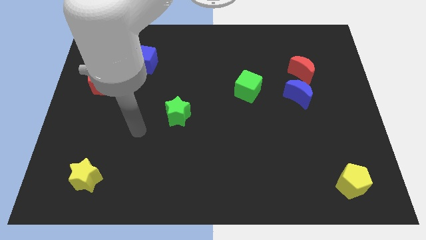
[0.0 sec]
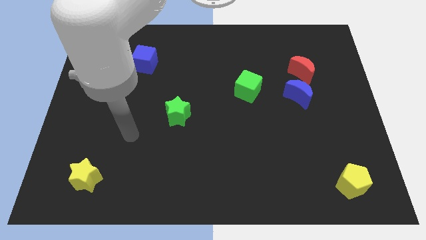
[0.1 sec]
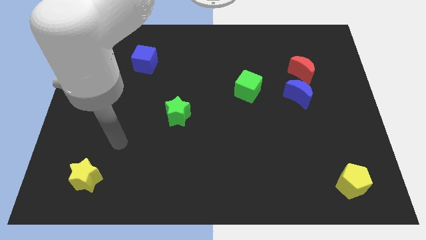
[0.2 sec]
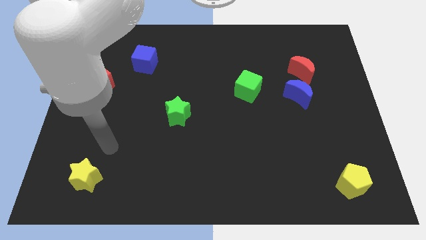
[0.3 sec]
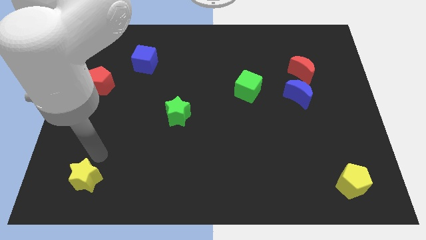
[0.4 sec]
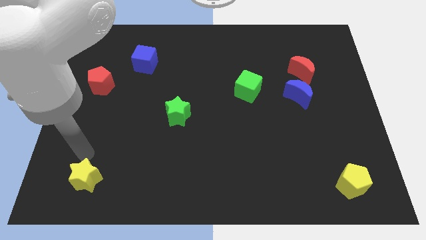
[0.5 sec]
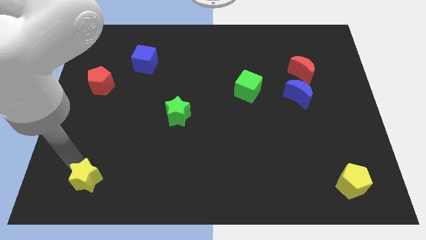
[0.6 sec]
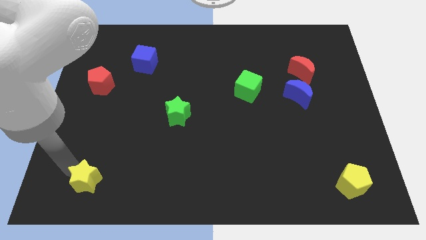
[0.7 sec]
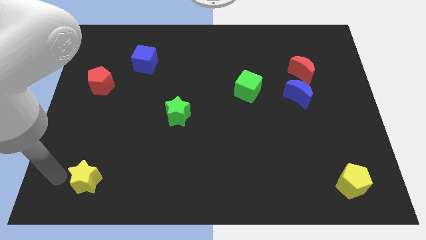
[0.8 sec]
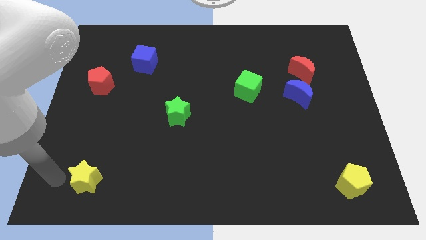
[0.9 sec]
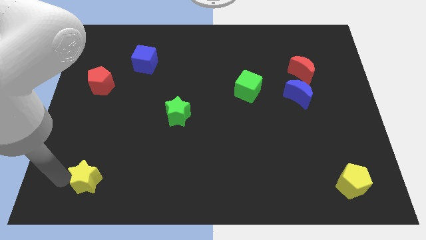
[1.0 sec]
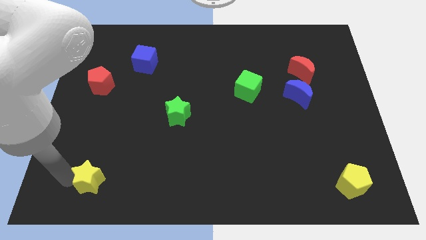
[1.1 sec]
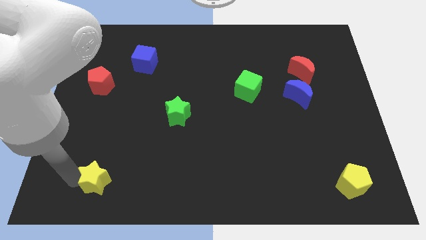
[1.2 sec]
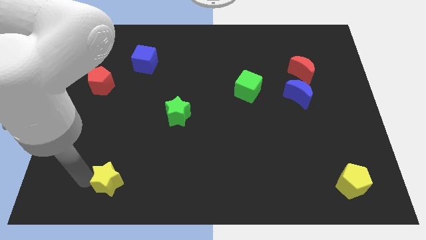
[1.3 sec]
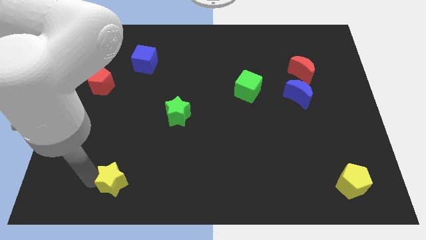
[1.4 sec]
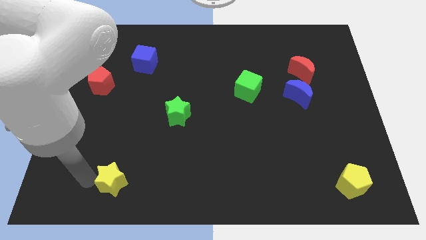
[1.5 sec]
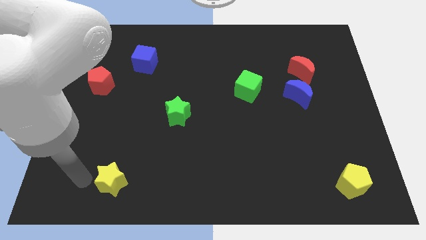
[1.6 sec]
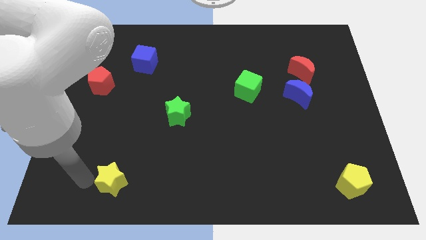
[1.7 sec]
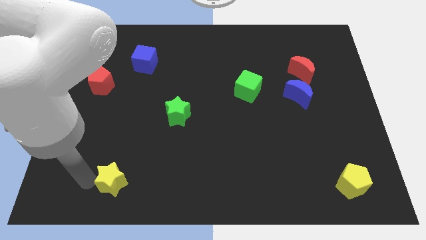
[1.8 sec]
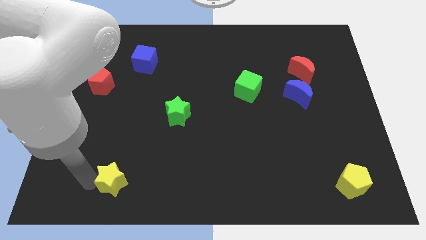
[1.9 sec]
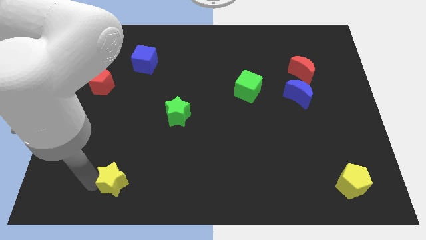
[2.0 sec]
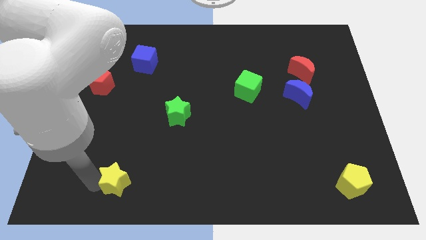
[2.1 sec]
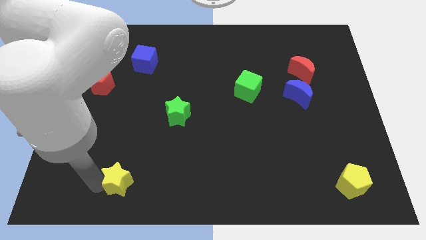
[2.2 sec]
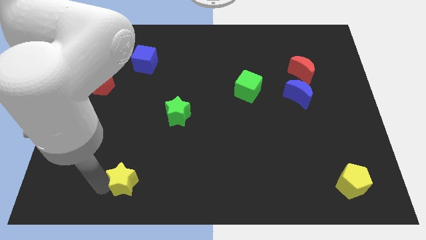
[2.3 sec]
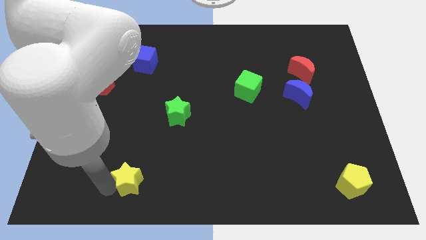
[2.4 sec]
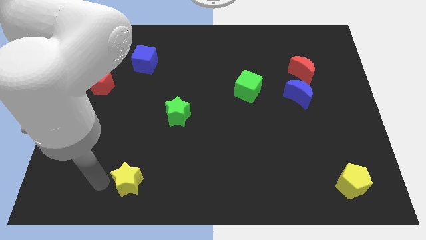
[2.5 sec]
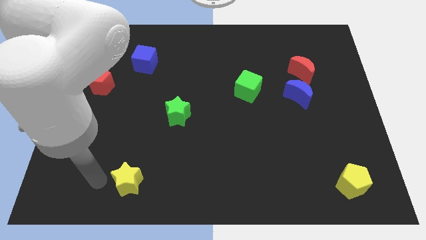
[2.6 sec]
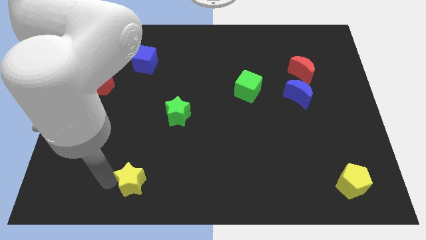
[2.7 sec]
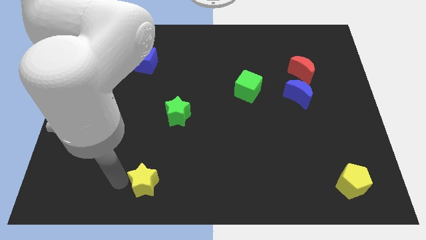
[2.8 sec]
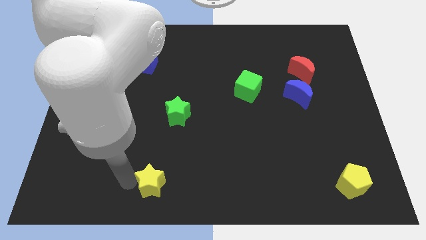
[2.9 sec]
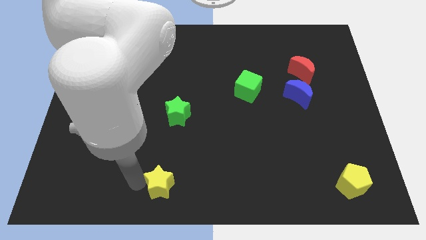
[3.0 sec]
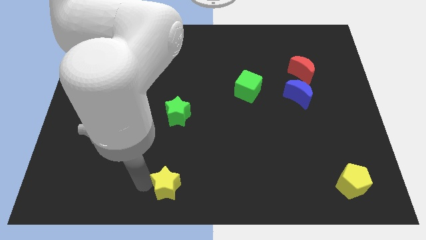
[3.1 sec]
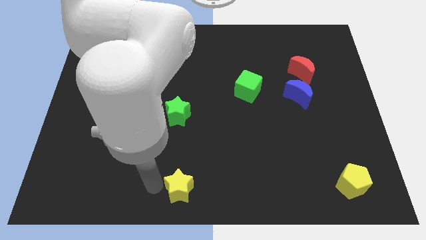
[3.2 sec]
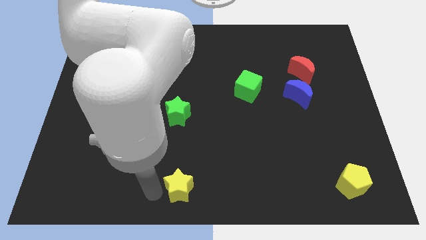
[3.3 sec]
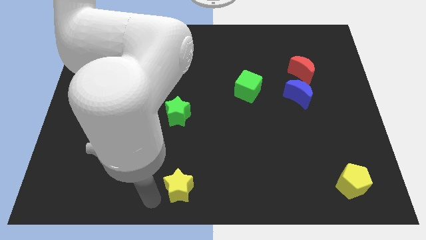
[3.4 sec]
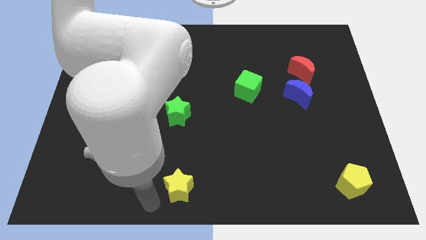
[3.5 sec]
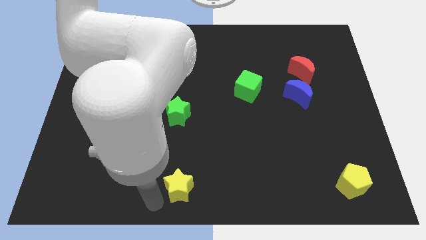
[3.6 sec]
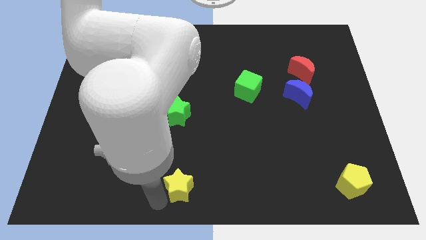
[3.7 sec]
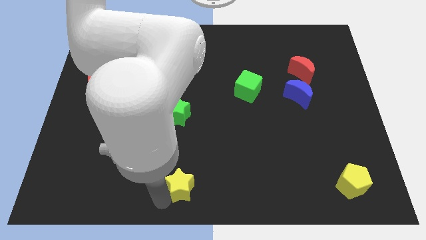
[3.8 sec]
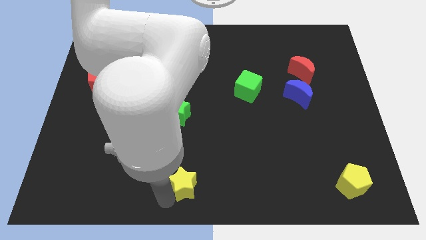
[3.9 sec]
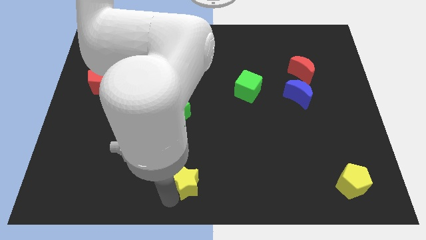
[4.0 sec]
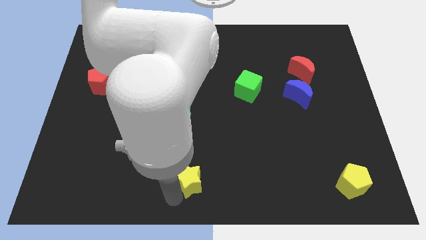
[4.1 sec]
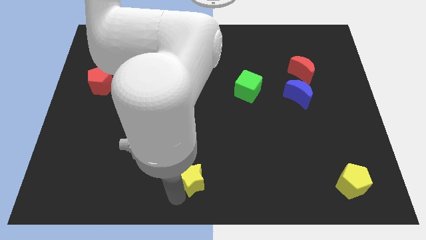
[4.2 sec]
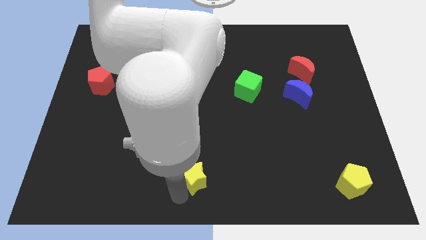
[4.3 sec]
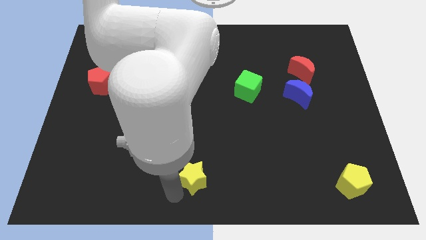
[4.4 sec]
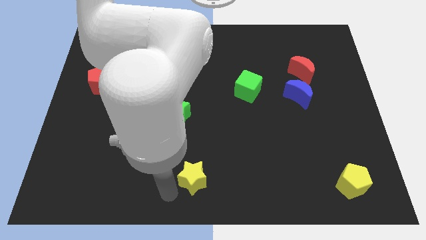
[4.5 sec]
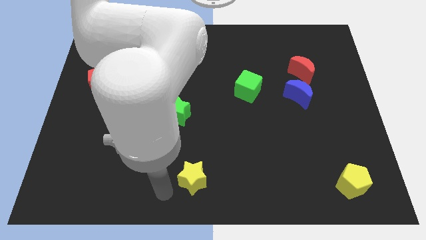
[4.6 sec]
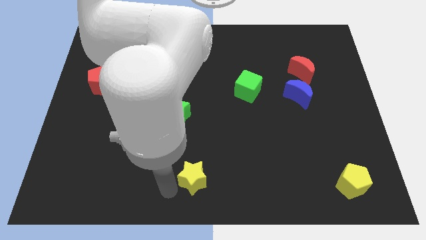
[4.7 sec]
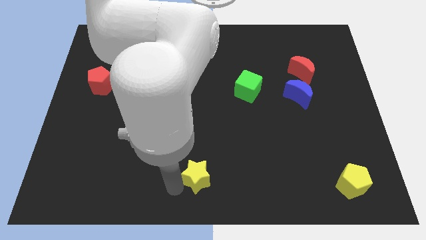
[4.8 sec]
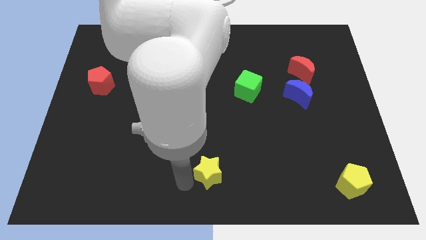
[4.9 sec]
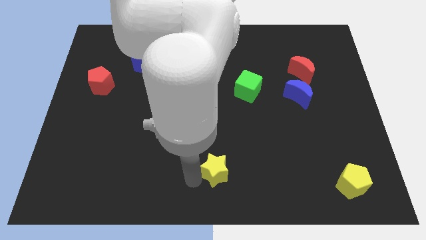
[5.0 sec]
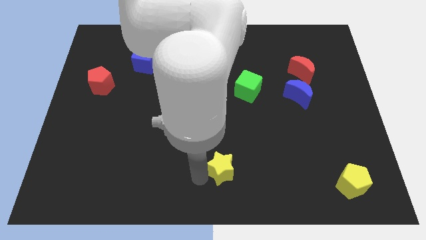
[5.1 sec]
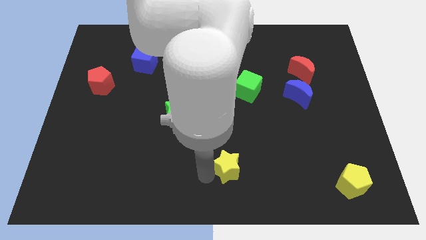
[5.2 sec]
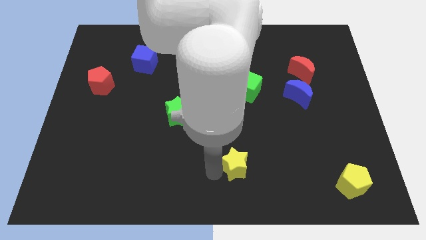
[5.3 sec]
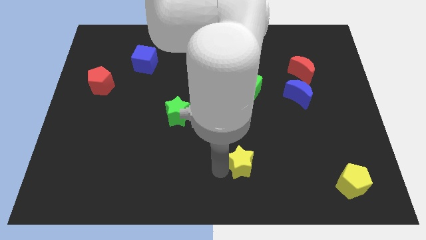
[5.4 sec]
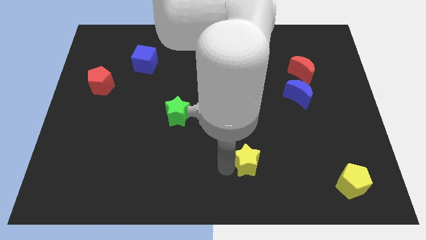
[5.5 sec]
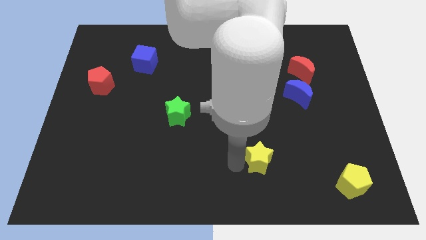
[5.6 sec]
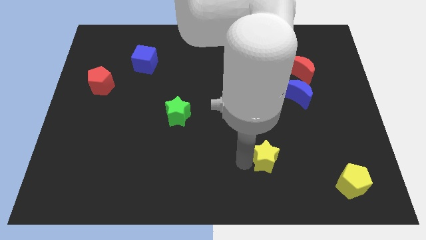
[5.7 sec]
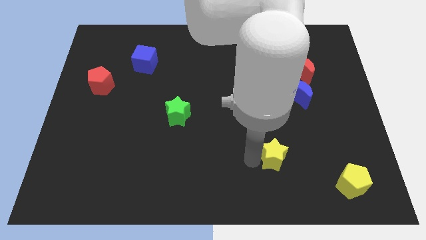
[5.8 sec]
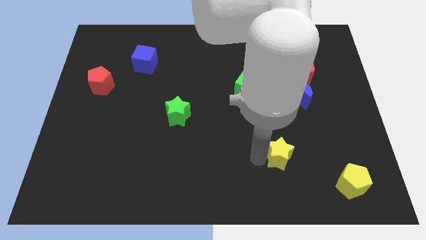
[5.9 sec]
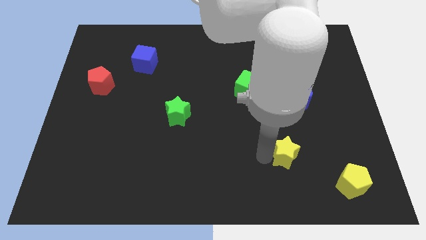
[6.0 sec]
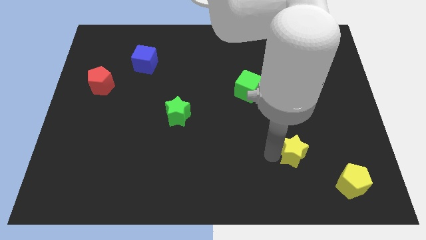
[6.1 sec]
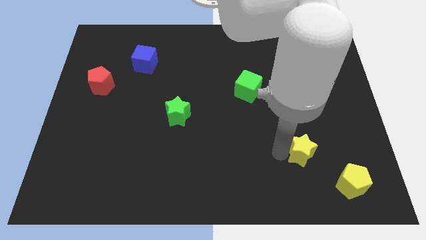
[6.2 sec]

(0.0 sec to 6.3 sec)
put the yellow star to the top left side of the yellow pentagon

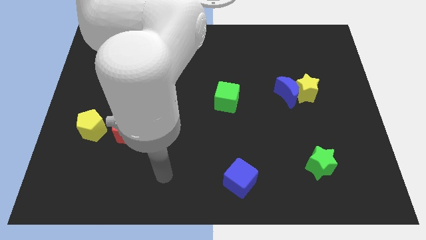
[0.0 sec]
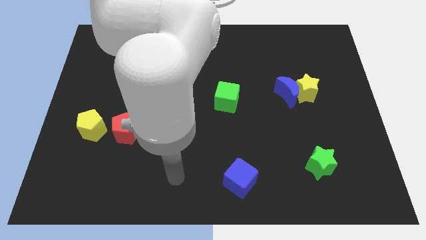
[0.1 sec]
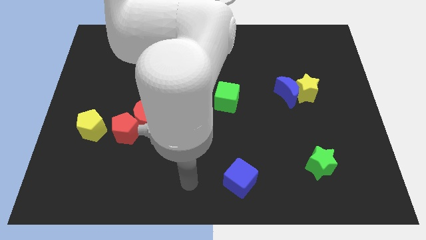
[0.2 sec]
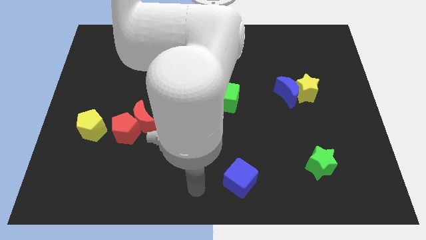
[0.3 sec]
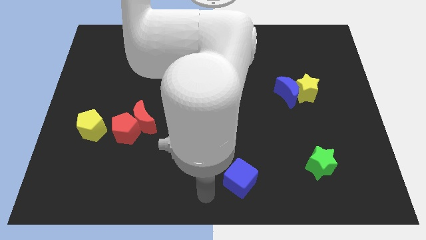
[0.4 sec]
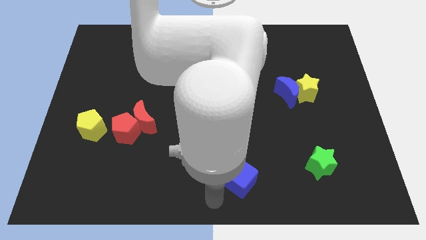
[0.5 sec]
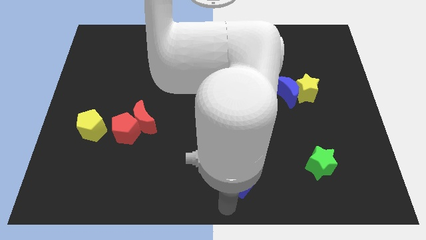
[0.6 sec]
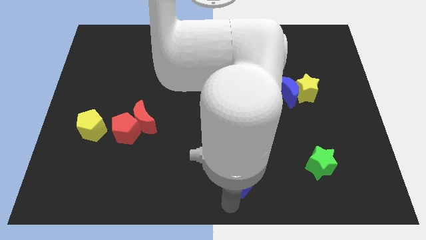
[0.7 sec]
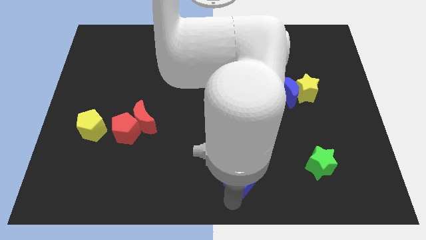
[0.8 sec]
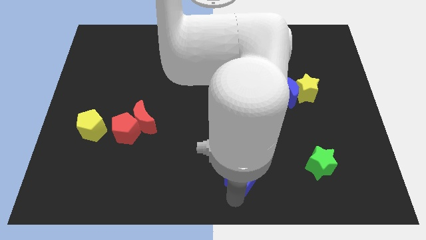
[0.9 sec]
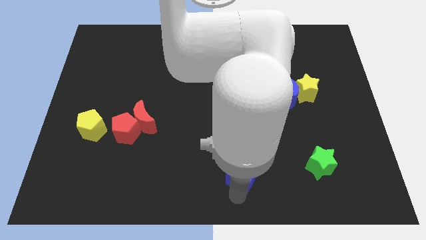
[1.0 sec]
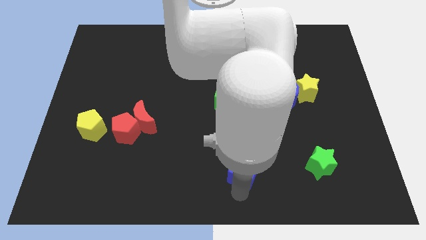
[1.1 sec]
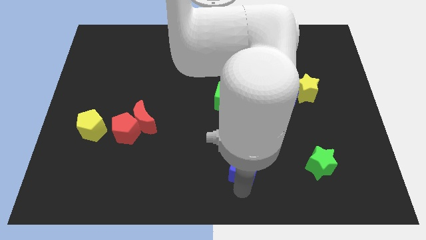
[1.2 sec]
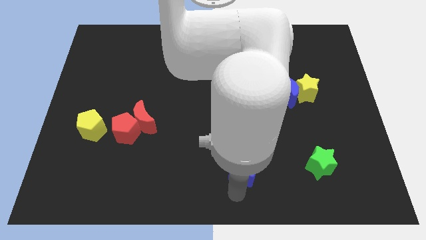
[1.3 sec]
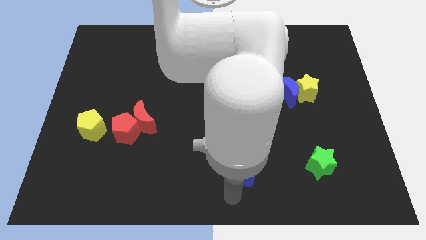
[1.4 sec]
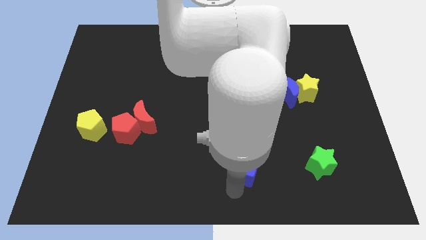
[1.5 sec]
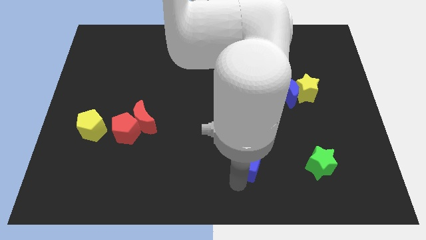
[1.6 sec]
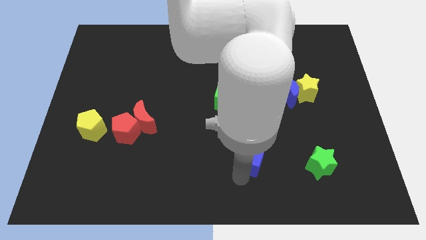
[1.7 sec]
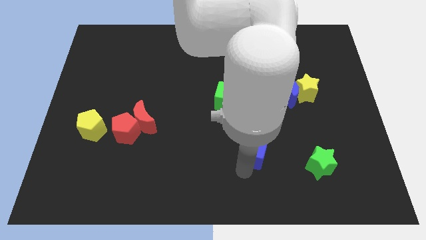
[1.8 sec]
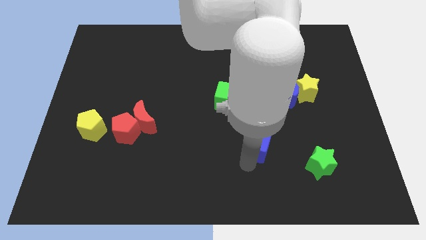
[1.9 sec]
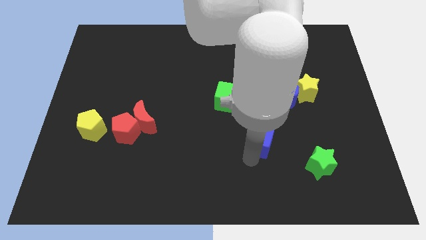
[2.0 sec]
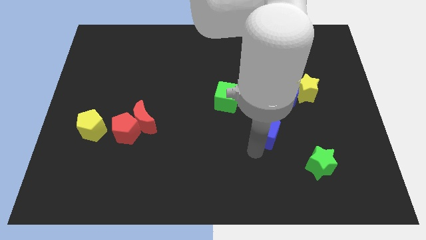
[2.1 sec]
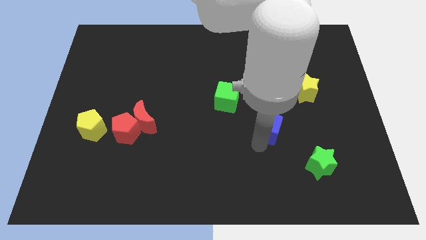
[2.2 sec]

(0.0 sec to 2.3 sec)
put the blue cube diagonally down and to the left of the blue moon
